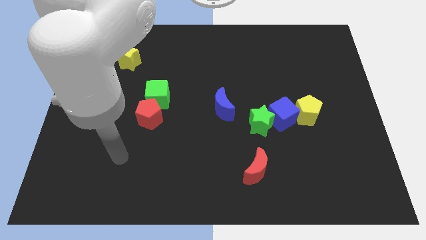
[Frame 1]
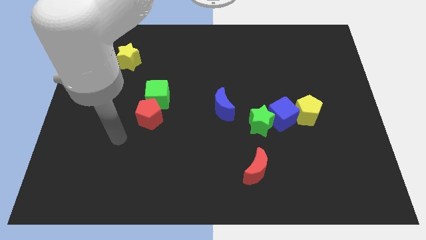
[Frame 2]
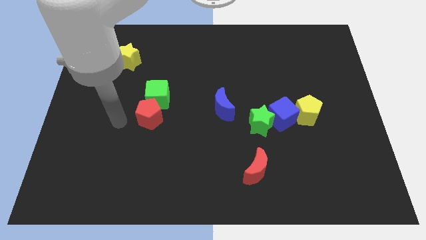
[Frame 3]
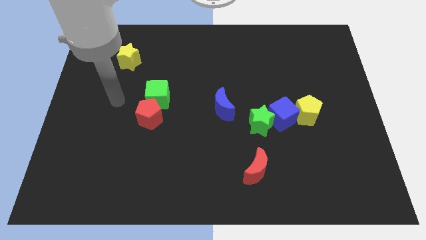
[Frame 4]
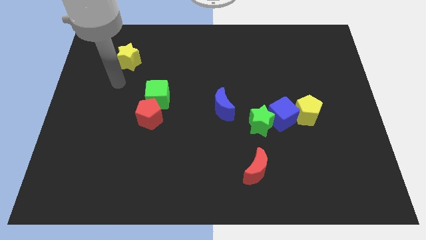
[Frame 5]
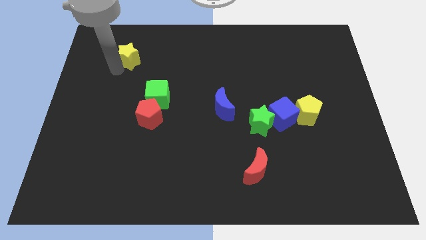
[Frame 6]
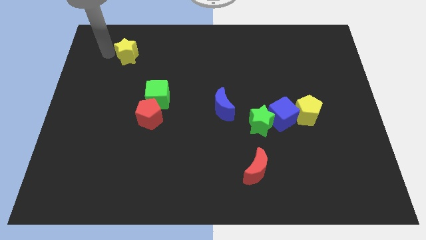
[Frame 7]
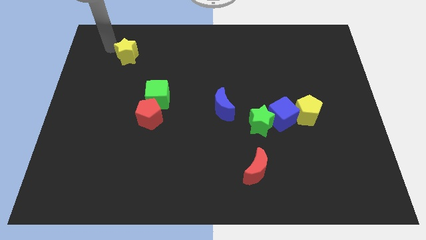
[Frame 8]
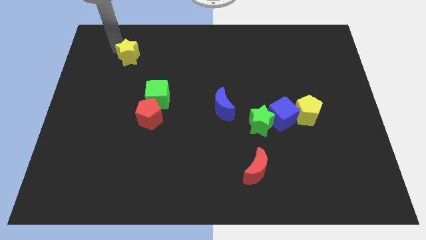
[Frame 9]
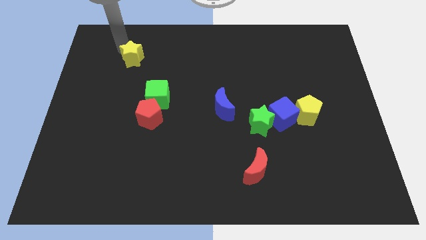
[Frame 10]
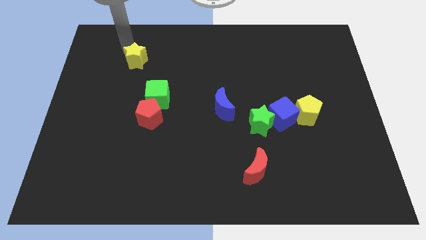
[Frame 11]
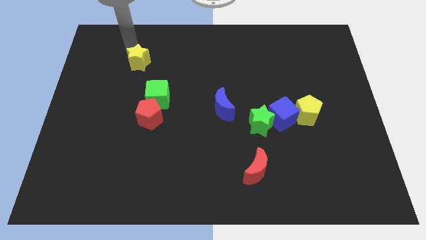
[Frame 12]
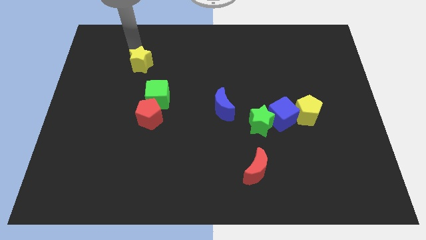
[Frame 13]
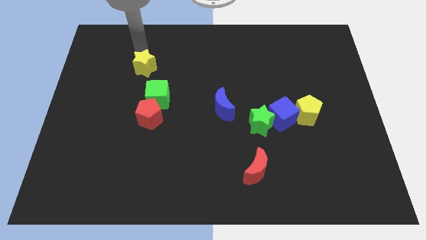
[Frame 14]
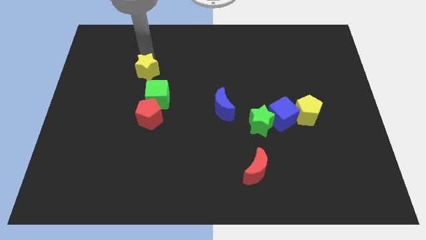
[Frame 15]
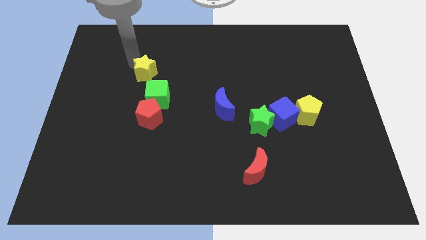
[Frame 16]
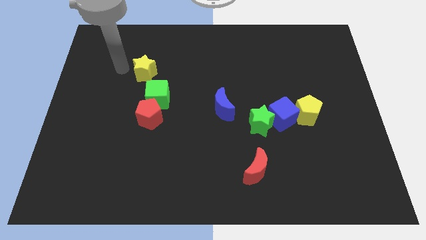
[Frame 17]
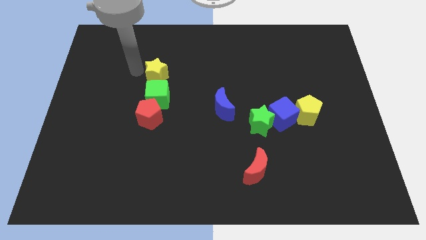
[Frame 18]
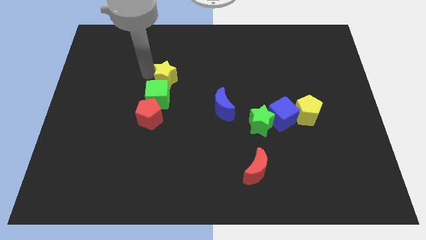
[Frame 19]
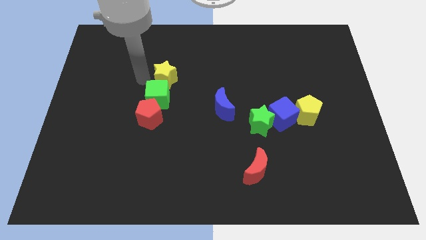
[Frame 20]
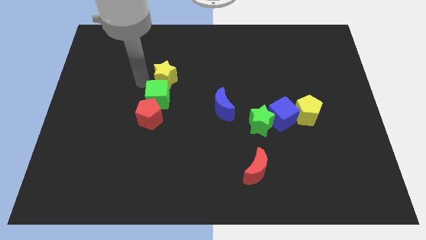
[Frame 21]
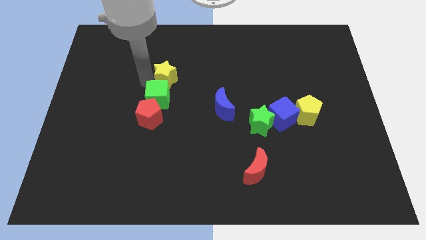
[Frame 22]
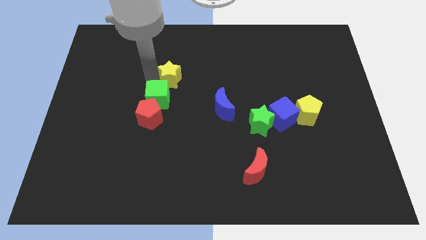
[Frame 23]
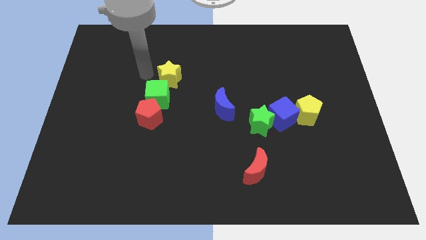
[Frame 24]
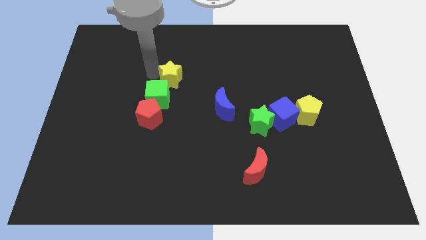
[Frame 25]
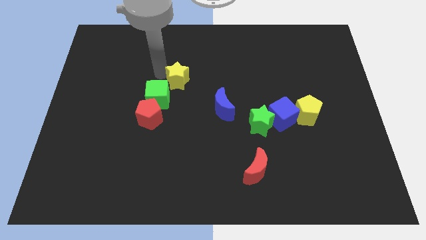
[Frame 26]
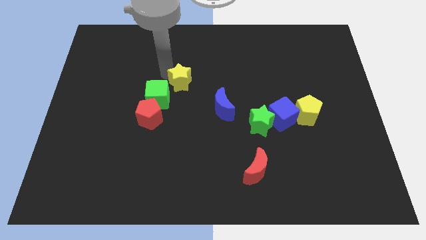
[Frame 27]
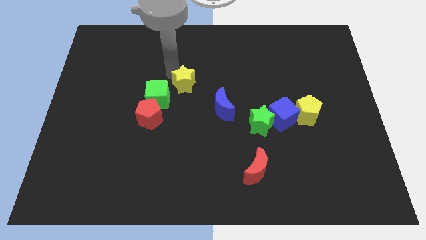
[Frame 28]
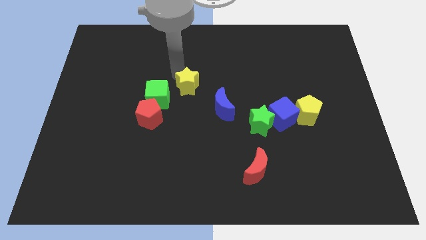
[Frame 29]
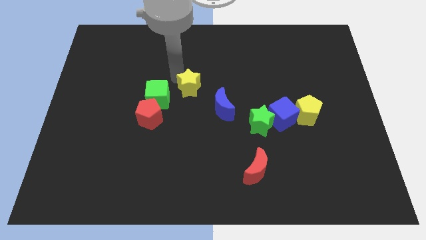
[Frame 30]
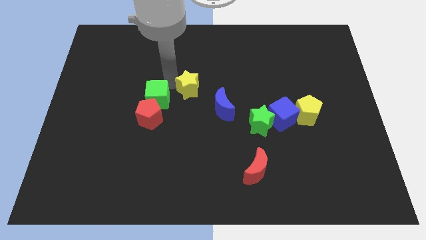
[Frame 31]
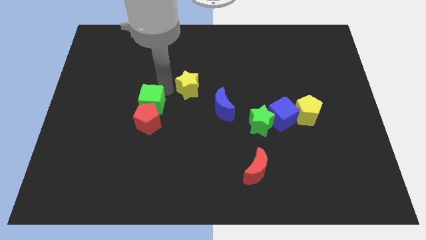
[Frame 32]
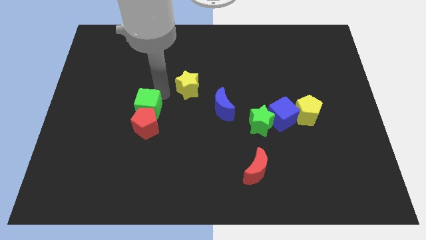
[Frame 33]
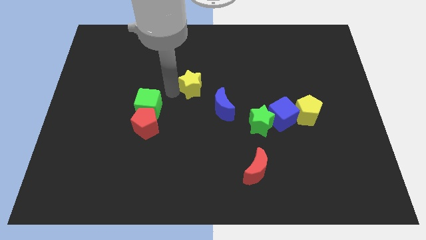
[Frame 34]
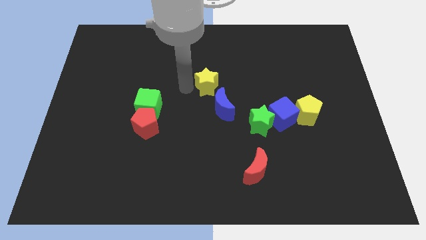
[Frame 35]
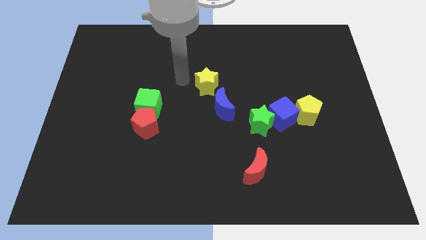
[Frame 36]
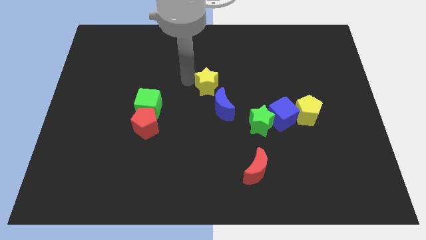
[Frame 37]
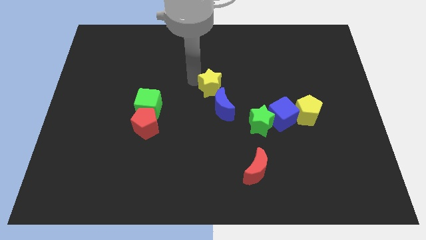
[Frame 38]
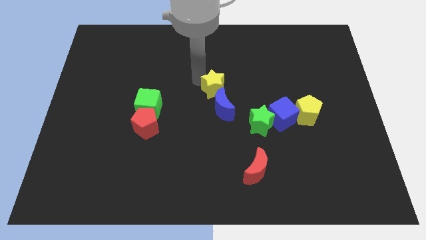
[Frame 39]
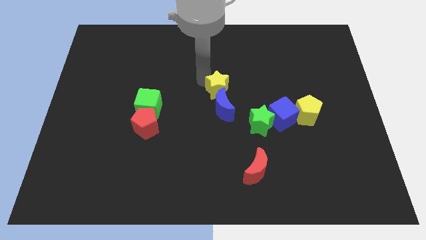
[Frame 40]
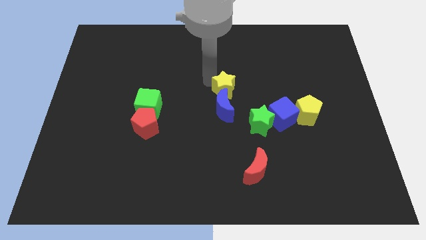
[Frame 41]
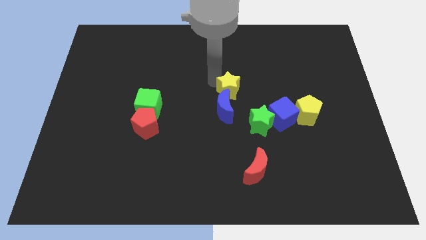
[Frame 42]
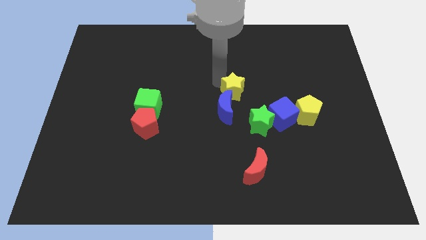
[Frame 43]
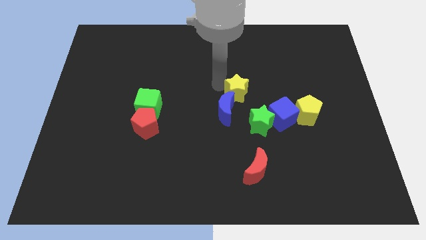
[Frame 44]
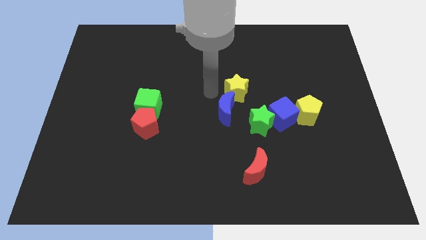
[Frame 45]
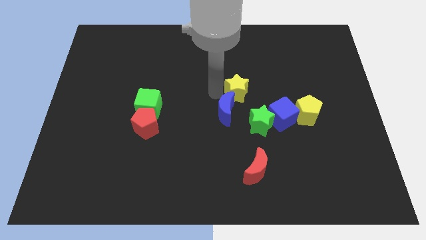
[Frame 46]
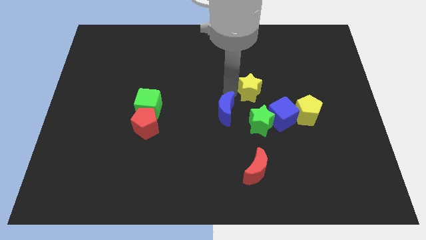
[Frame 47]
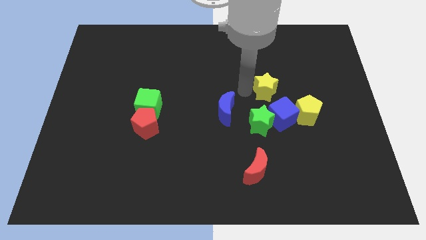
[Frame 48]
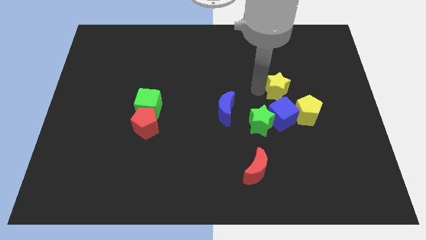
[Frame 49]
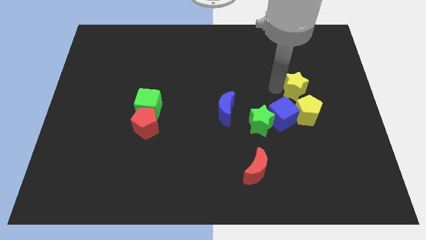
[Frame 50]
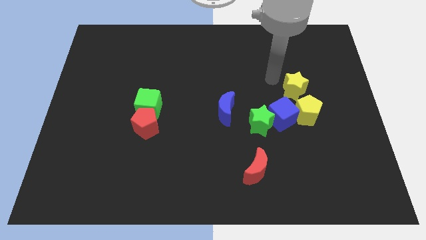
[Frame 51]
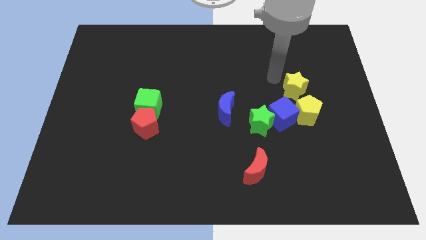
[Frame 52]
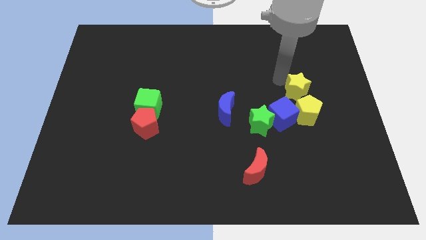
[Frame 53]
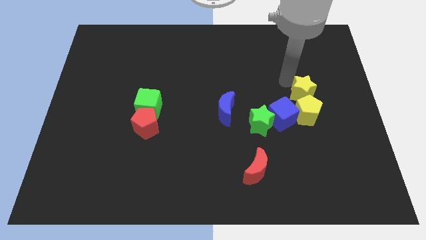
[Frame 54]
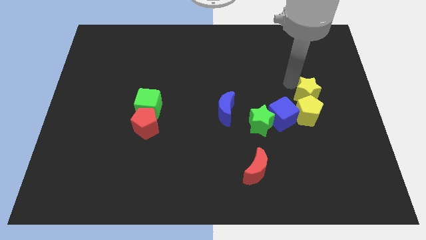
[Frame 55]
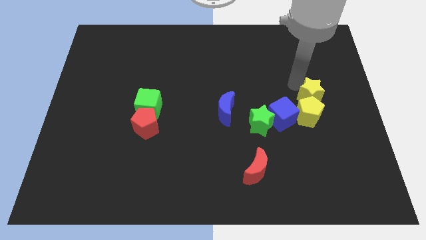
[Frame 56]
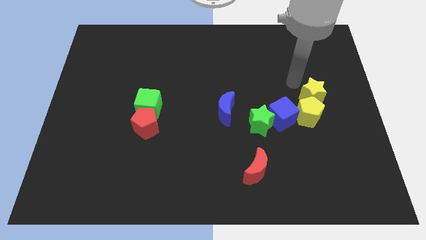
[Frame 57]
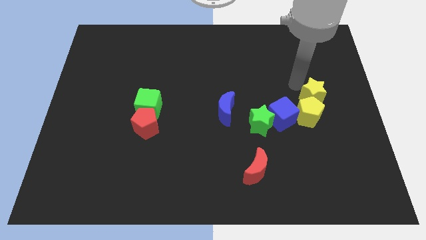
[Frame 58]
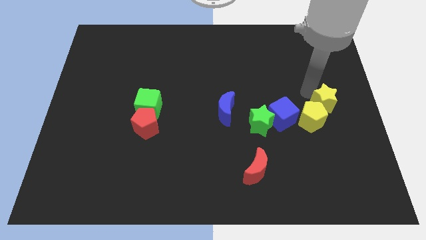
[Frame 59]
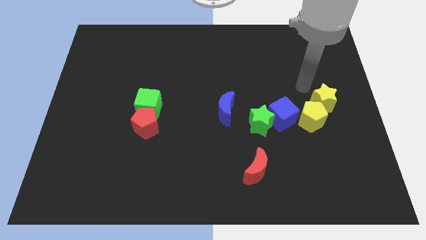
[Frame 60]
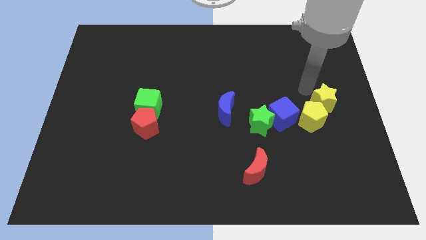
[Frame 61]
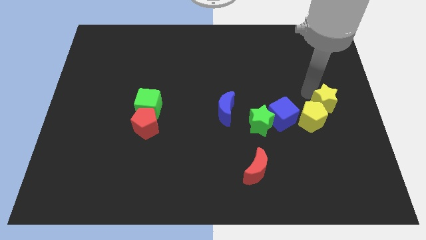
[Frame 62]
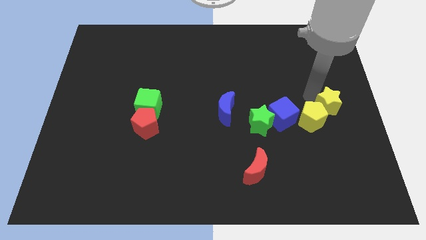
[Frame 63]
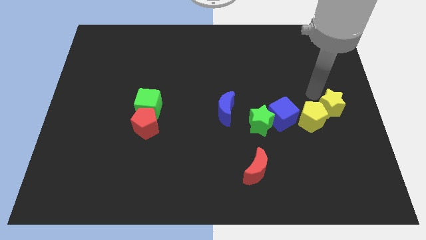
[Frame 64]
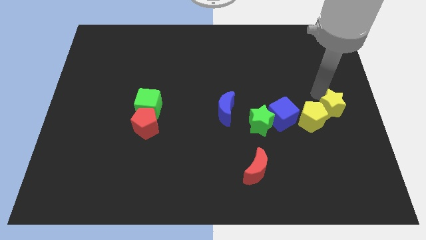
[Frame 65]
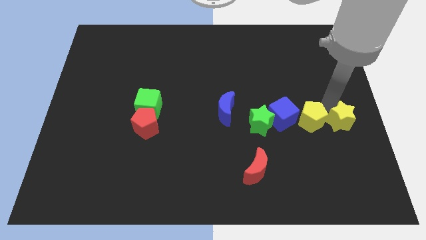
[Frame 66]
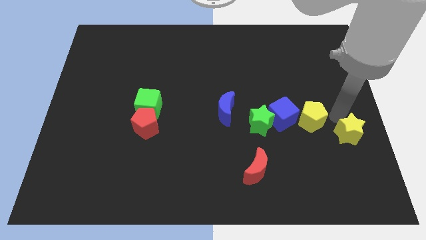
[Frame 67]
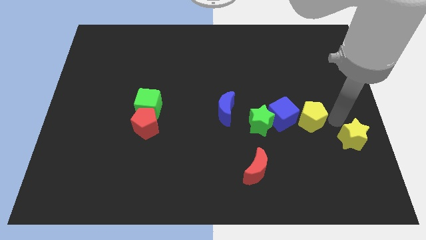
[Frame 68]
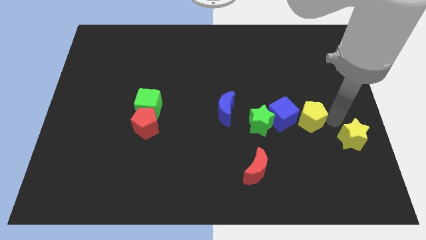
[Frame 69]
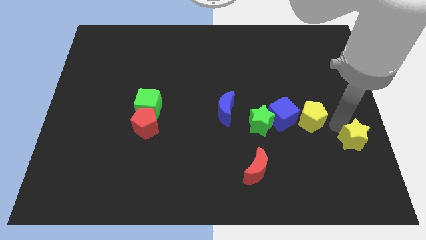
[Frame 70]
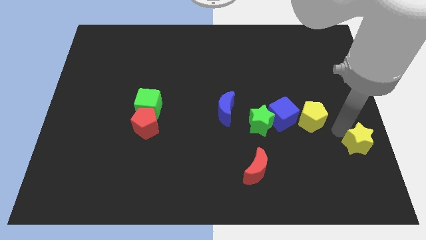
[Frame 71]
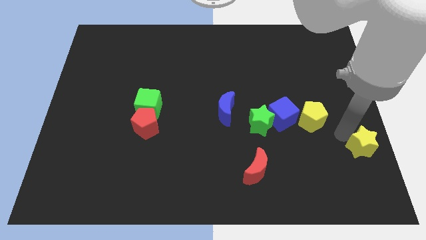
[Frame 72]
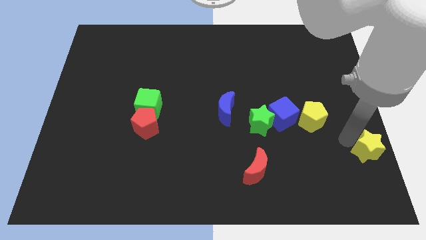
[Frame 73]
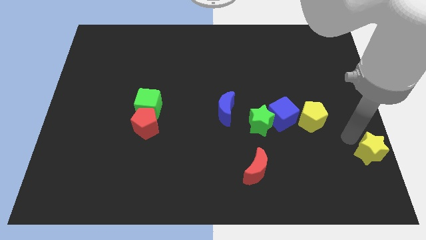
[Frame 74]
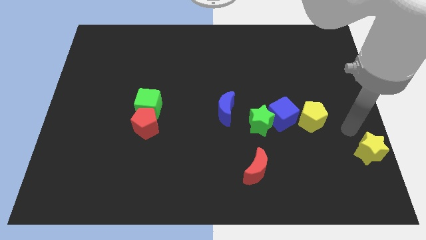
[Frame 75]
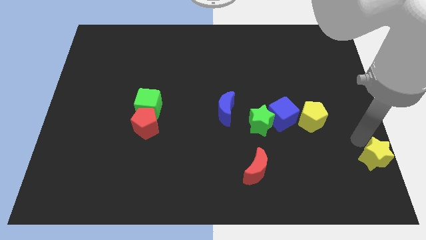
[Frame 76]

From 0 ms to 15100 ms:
slide the yellow star to the bottom right
